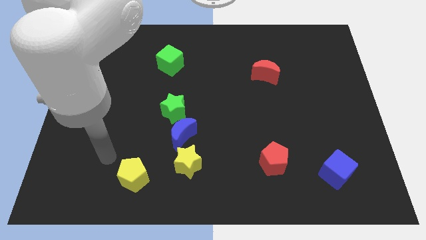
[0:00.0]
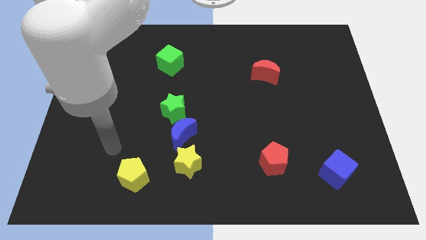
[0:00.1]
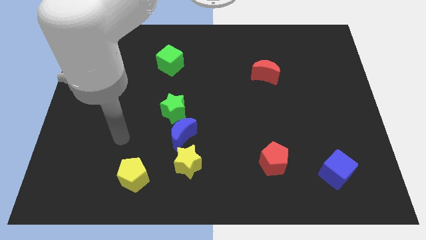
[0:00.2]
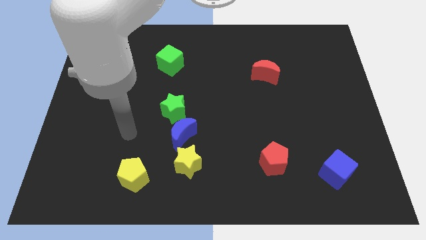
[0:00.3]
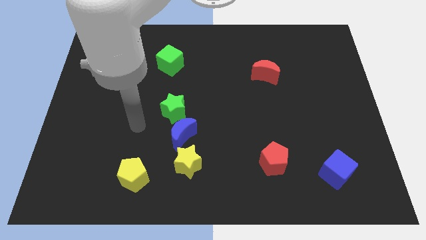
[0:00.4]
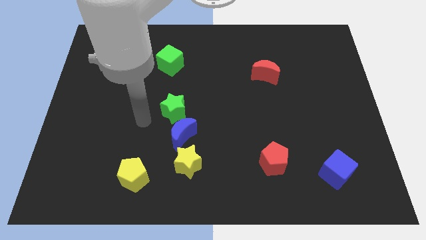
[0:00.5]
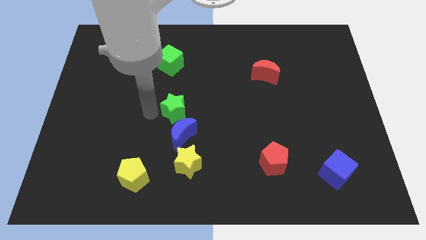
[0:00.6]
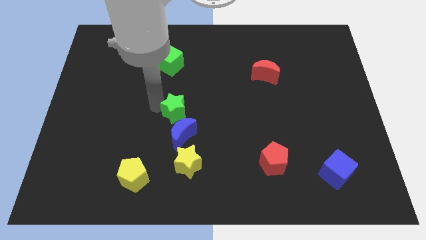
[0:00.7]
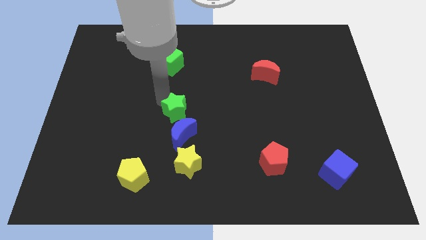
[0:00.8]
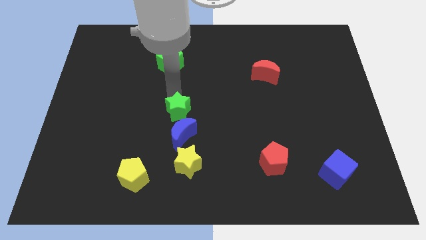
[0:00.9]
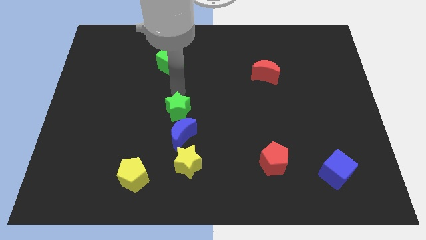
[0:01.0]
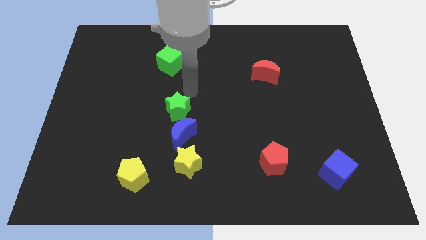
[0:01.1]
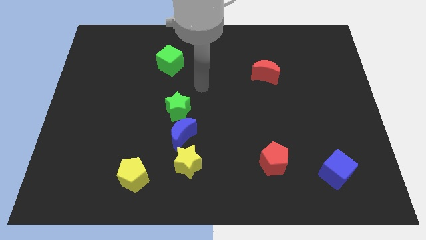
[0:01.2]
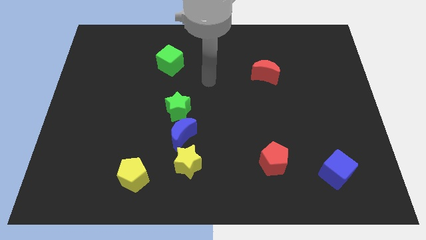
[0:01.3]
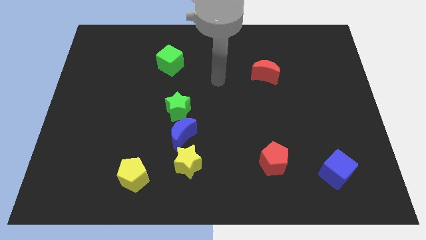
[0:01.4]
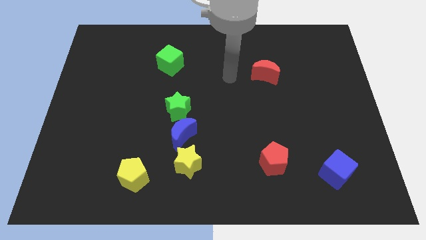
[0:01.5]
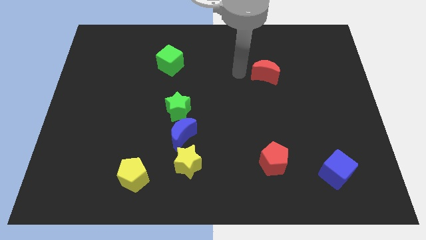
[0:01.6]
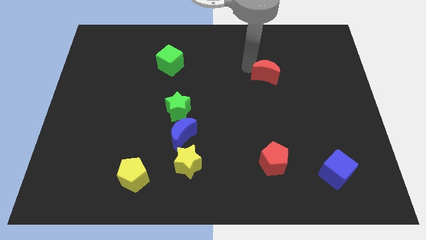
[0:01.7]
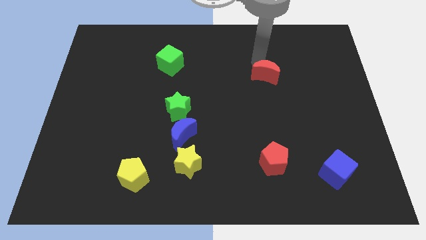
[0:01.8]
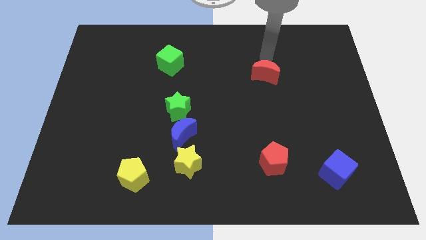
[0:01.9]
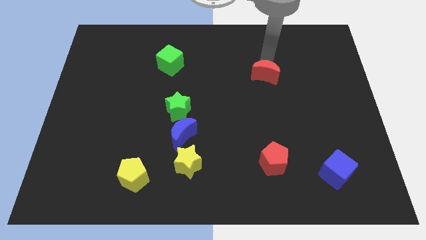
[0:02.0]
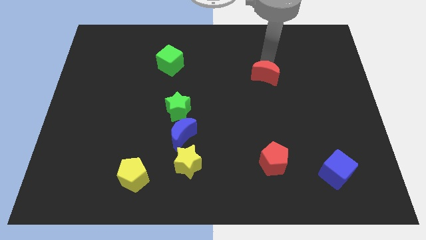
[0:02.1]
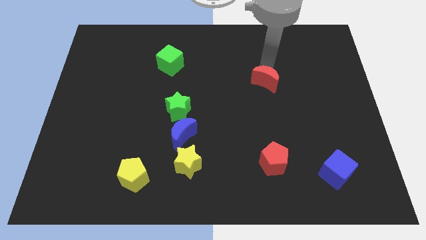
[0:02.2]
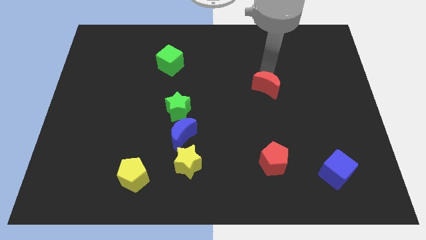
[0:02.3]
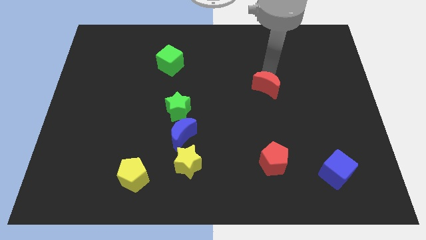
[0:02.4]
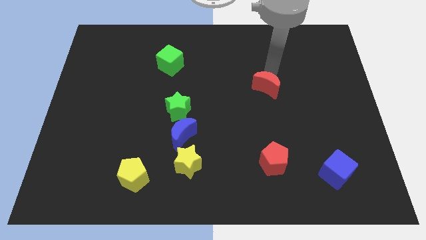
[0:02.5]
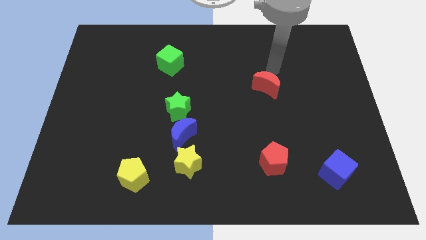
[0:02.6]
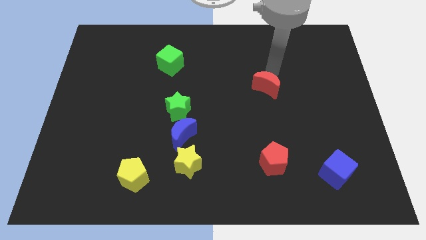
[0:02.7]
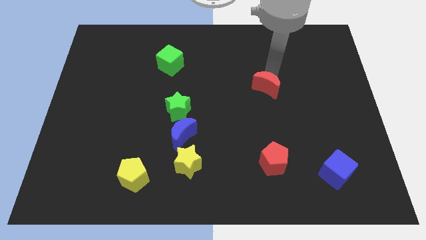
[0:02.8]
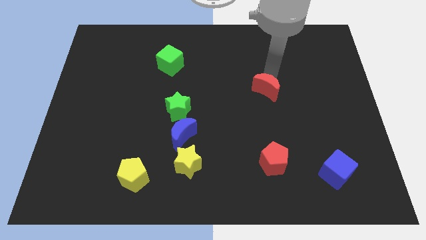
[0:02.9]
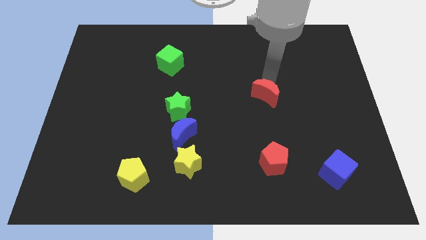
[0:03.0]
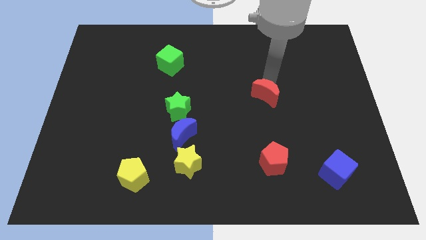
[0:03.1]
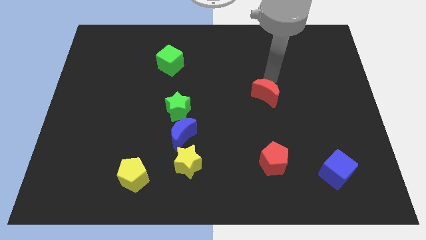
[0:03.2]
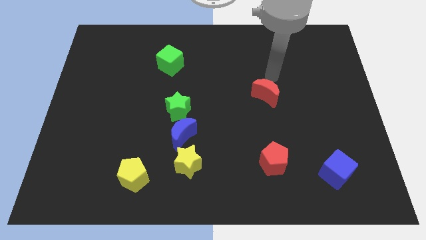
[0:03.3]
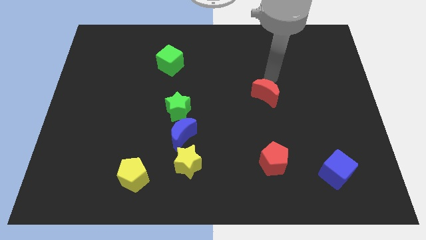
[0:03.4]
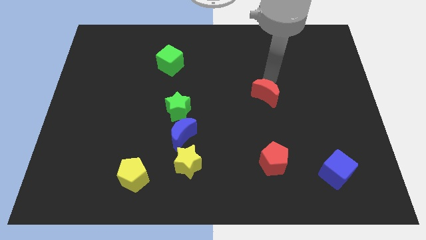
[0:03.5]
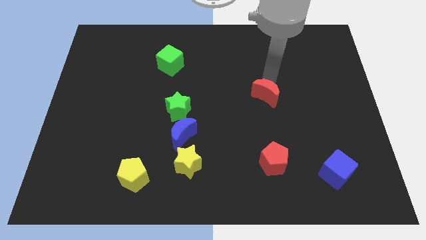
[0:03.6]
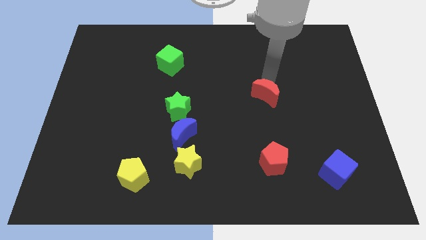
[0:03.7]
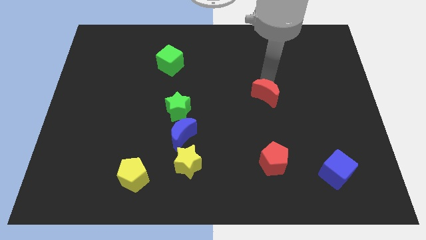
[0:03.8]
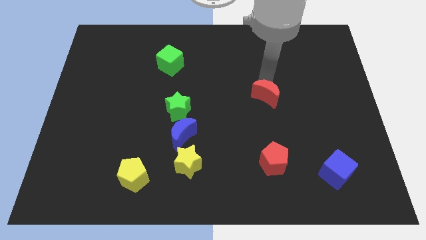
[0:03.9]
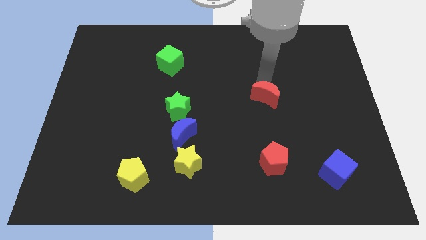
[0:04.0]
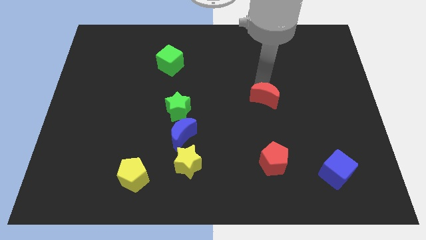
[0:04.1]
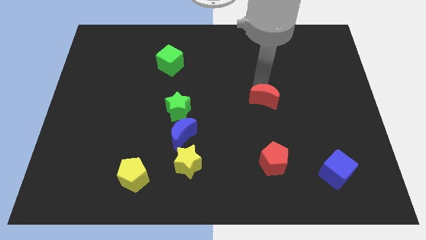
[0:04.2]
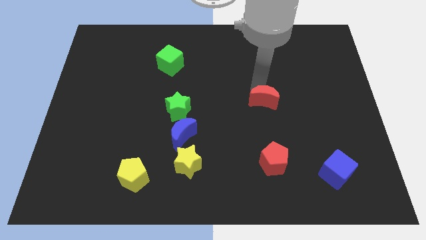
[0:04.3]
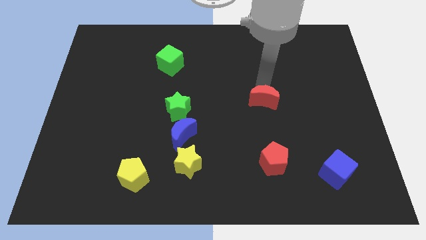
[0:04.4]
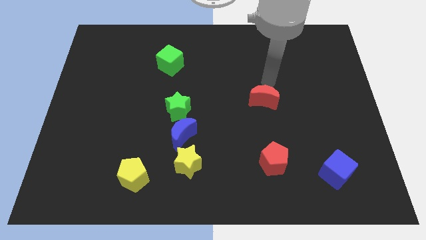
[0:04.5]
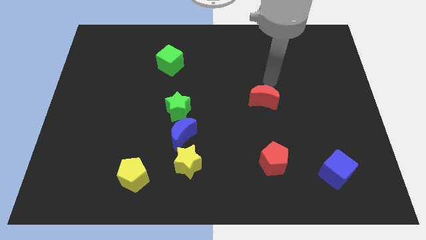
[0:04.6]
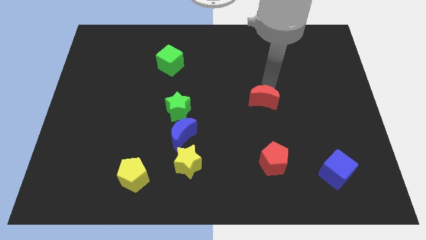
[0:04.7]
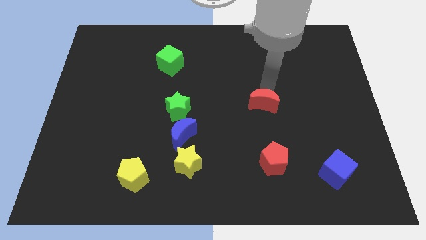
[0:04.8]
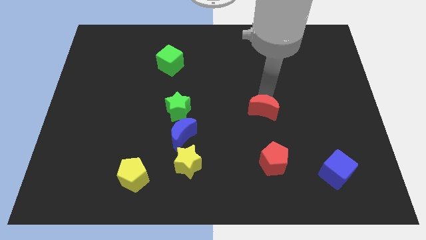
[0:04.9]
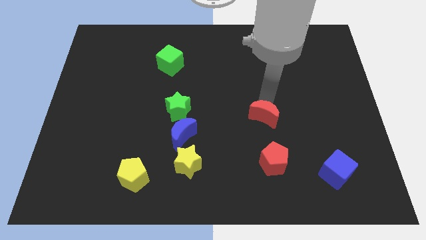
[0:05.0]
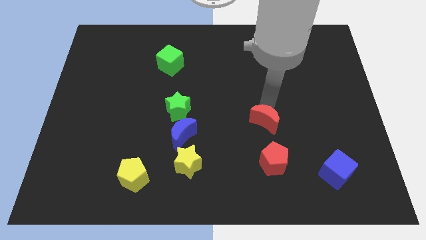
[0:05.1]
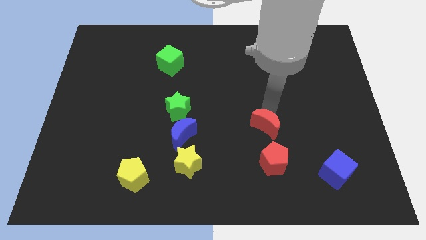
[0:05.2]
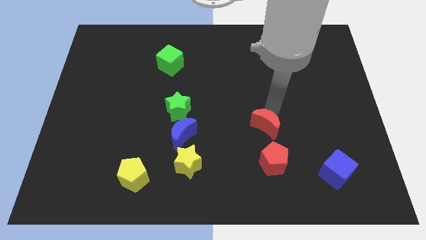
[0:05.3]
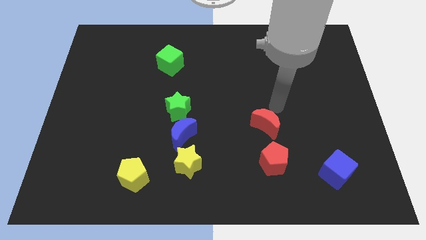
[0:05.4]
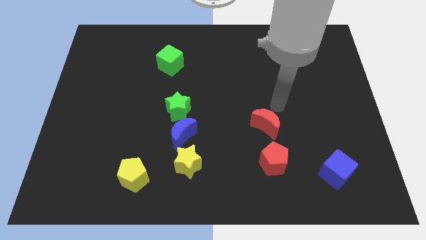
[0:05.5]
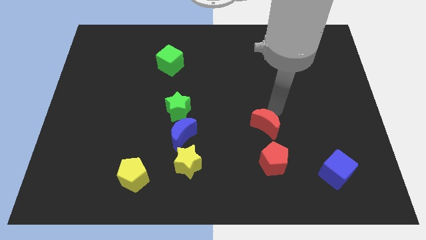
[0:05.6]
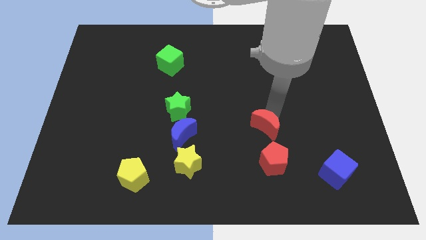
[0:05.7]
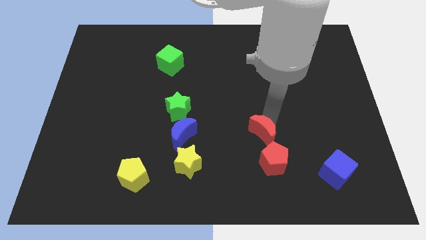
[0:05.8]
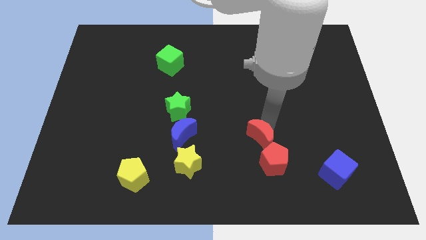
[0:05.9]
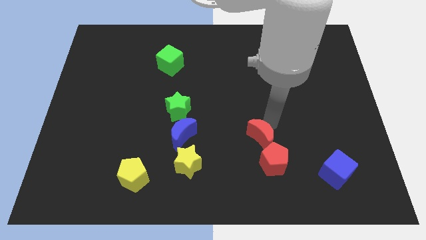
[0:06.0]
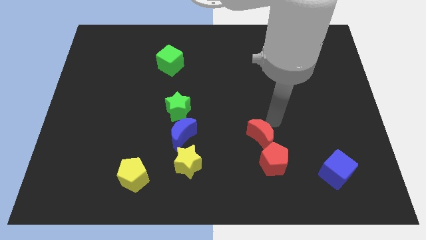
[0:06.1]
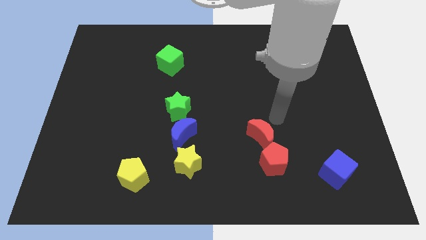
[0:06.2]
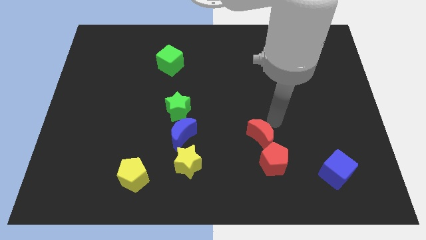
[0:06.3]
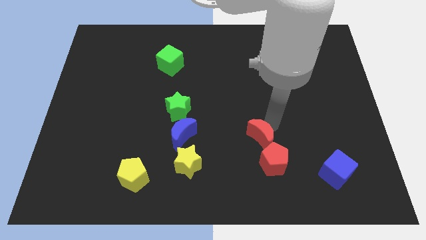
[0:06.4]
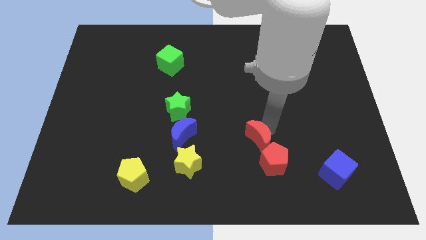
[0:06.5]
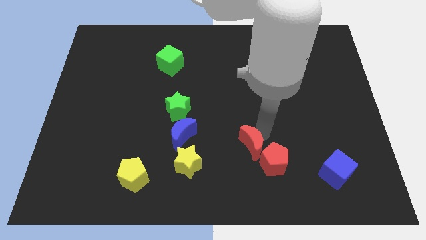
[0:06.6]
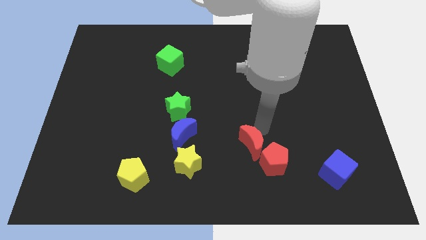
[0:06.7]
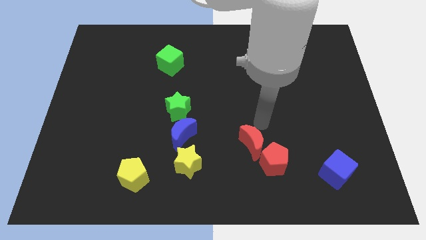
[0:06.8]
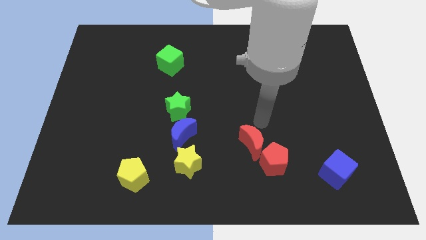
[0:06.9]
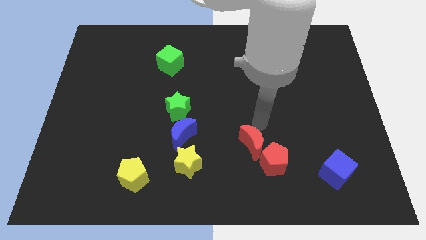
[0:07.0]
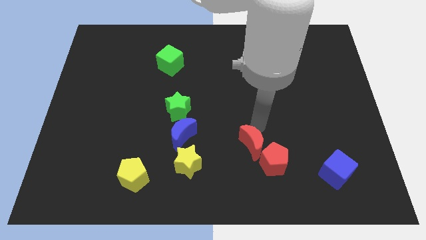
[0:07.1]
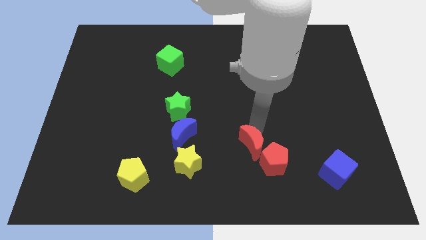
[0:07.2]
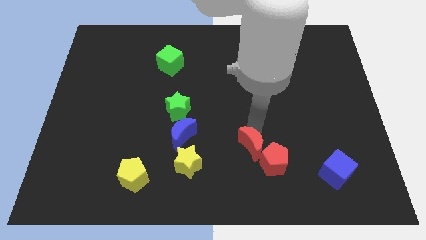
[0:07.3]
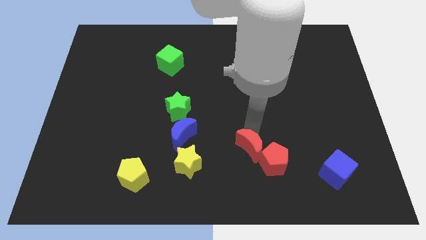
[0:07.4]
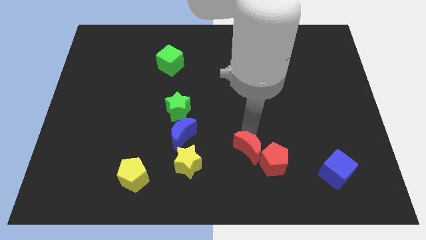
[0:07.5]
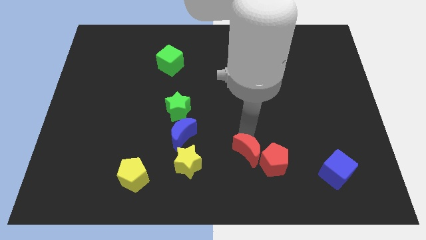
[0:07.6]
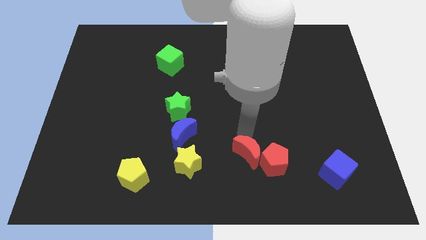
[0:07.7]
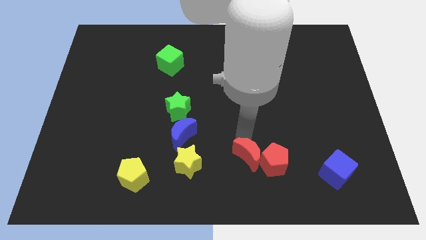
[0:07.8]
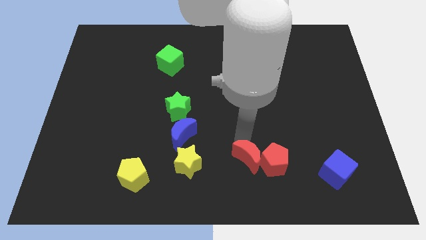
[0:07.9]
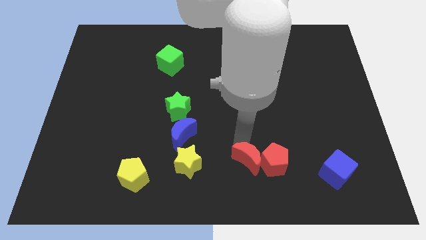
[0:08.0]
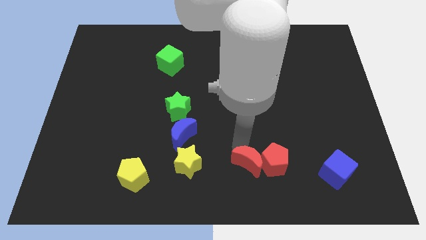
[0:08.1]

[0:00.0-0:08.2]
move the red moon to the bottom side
